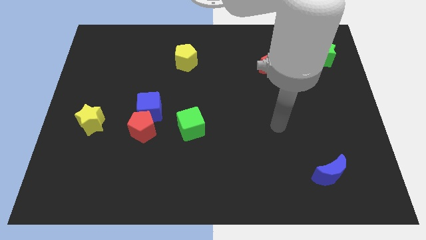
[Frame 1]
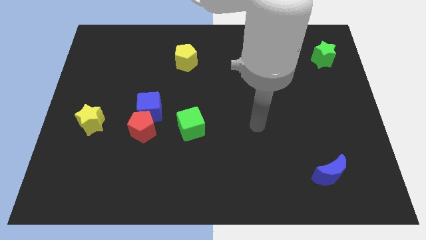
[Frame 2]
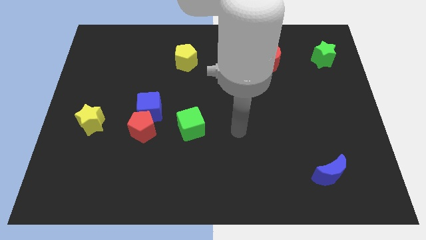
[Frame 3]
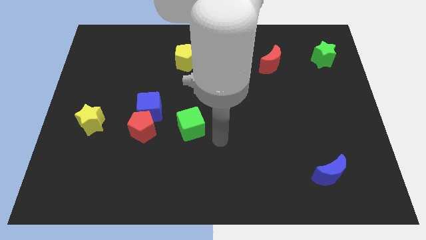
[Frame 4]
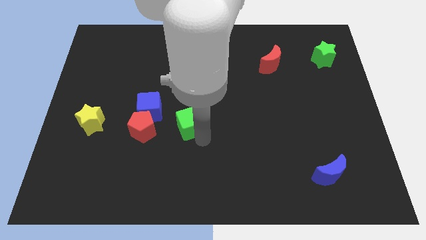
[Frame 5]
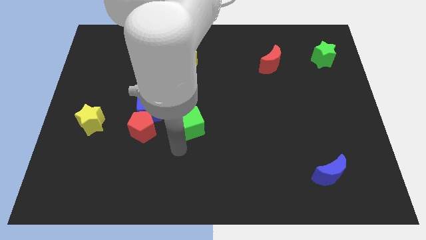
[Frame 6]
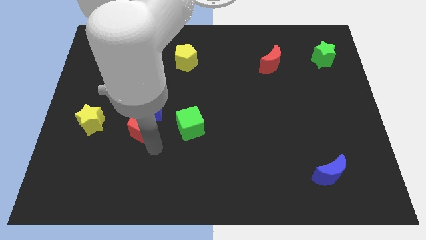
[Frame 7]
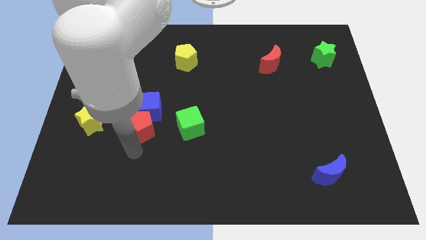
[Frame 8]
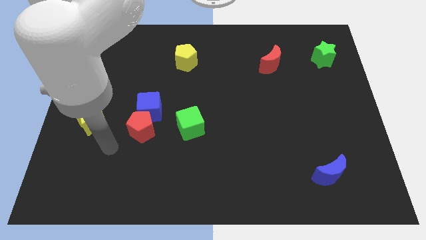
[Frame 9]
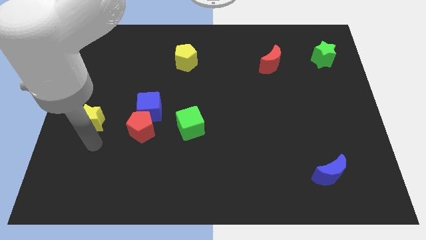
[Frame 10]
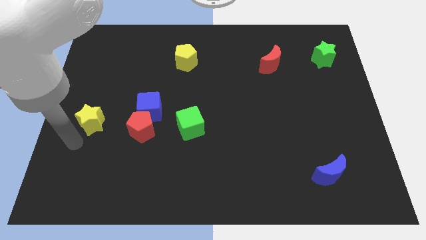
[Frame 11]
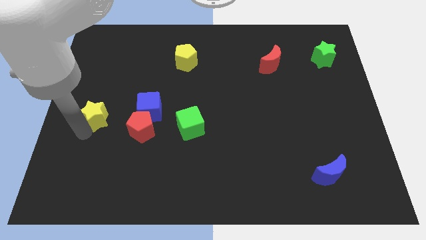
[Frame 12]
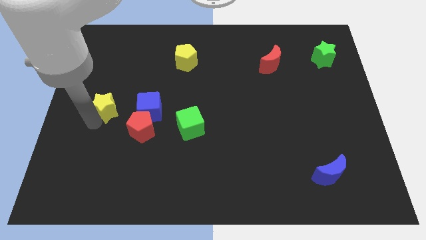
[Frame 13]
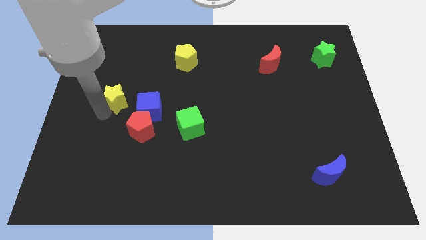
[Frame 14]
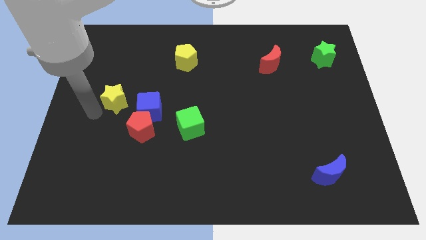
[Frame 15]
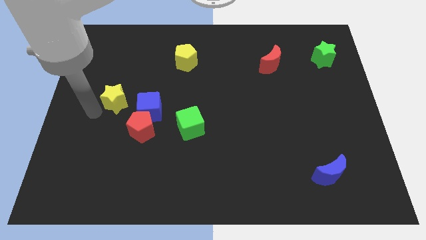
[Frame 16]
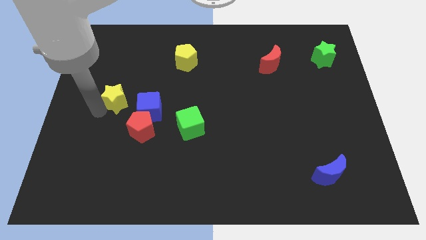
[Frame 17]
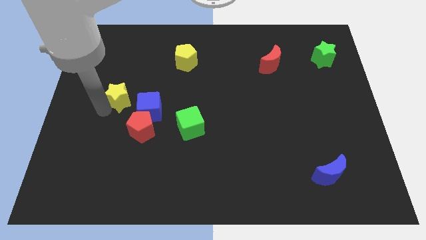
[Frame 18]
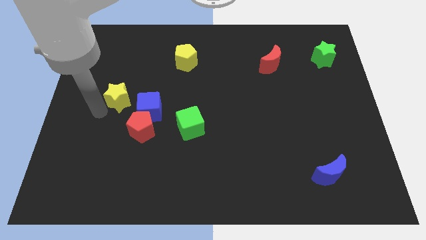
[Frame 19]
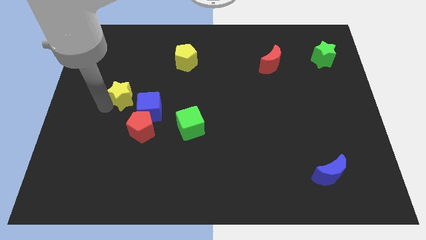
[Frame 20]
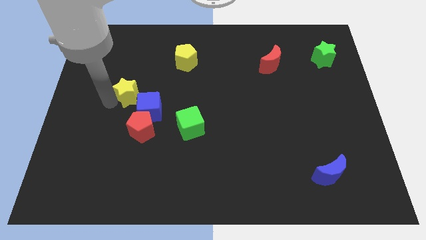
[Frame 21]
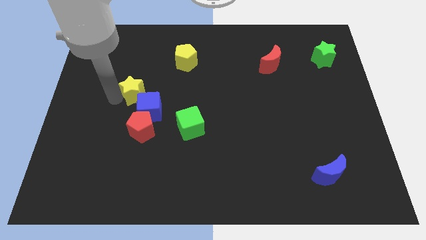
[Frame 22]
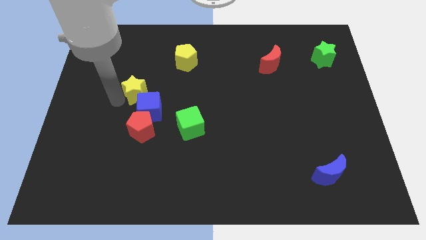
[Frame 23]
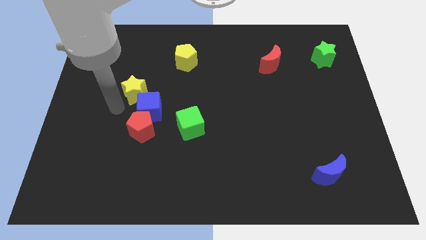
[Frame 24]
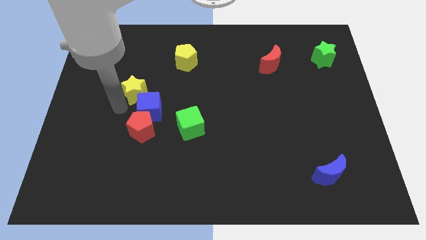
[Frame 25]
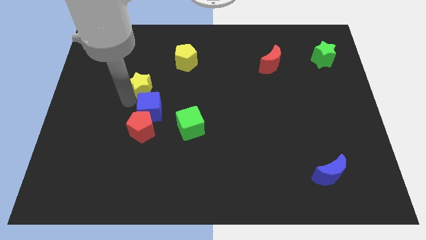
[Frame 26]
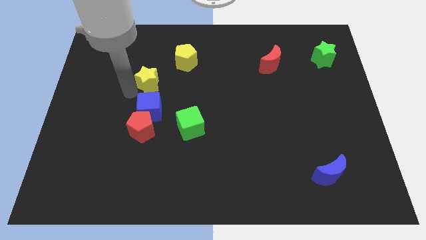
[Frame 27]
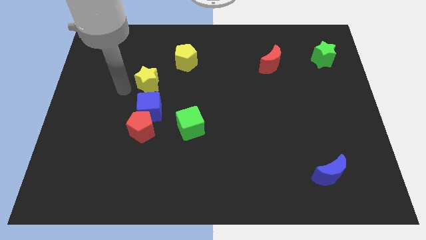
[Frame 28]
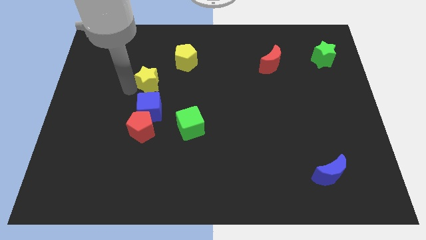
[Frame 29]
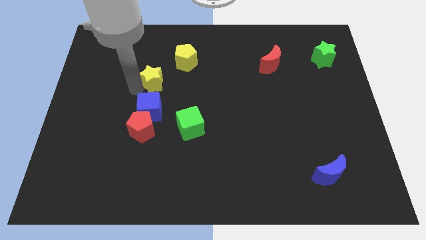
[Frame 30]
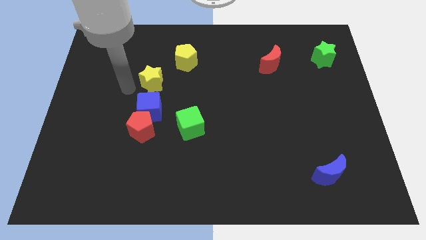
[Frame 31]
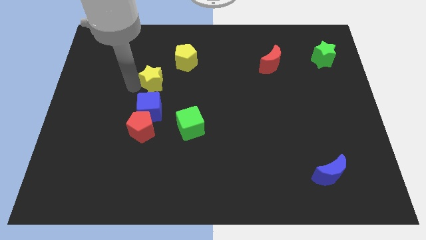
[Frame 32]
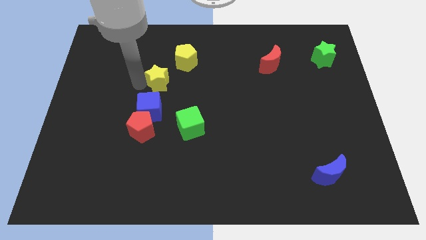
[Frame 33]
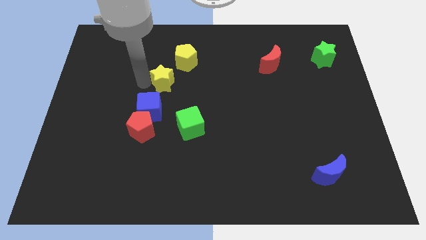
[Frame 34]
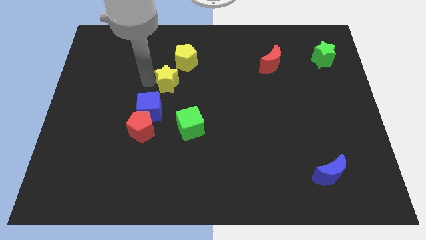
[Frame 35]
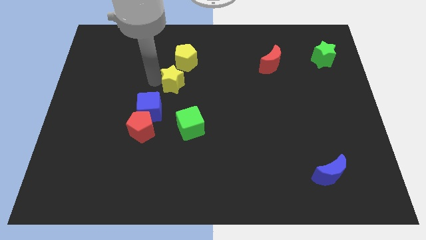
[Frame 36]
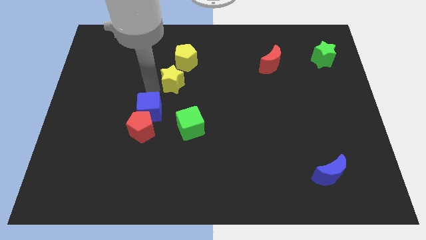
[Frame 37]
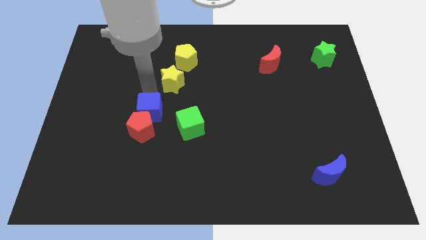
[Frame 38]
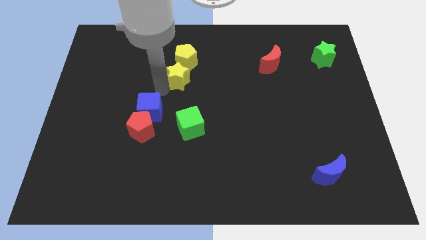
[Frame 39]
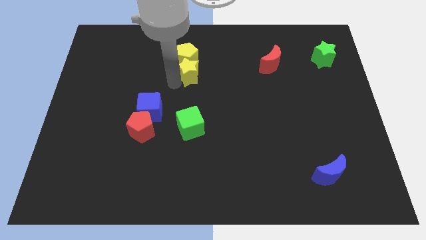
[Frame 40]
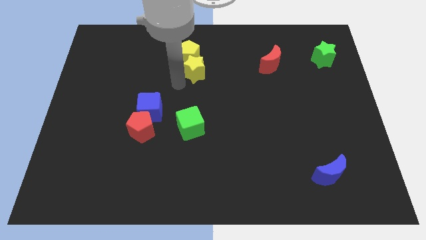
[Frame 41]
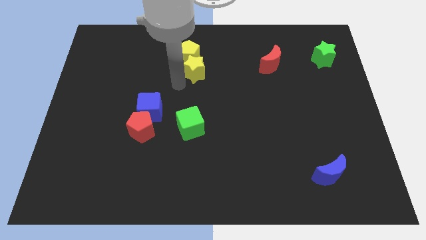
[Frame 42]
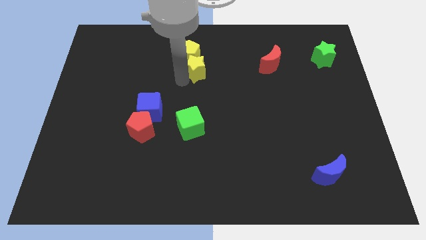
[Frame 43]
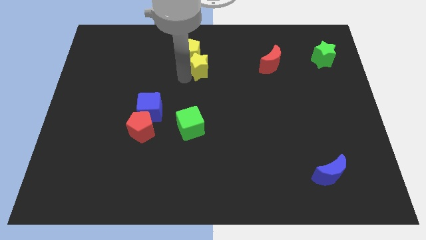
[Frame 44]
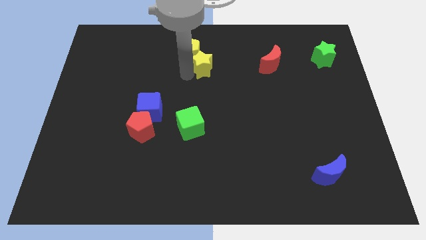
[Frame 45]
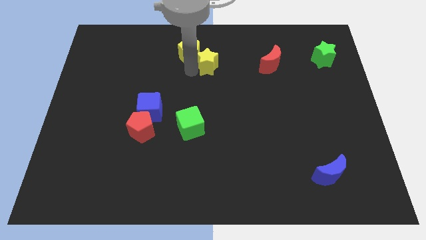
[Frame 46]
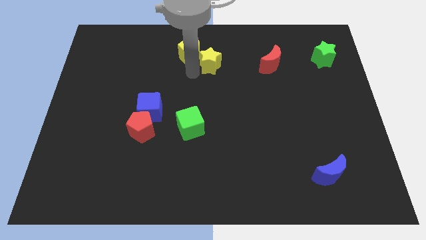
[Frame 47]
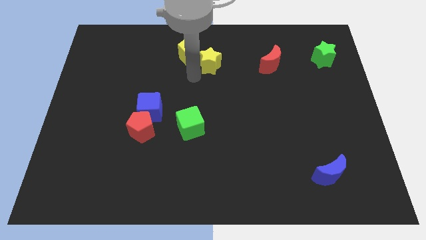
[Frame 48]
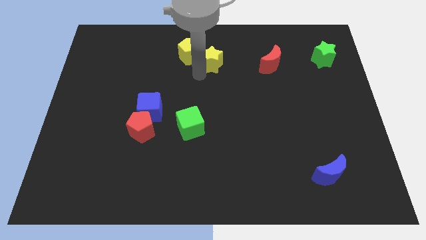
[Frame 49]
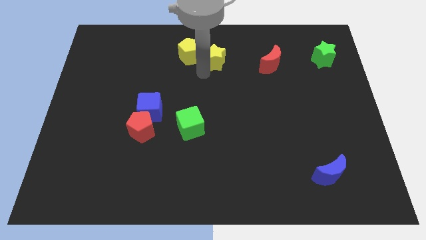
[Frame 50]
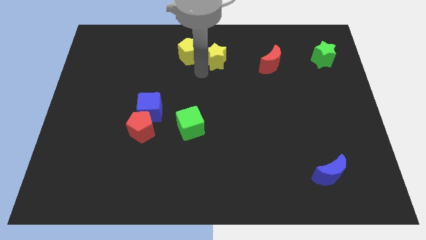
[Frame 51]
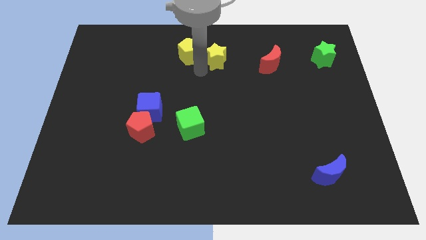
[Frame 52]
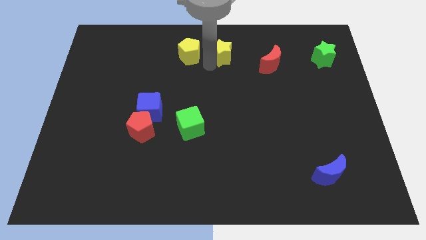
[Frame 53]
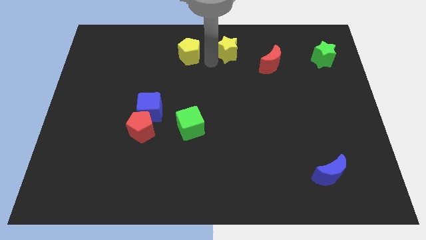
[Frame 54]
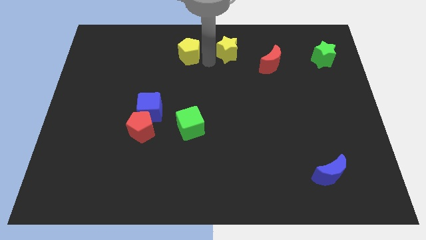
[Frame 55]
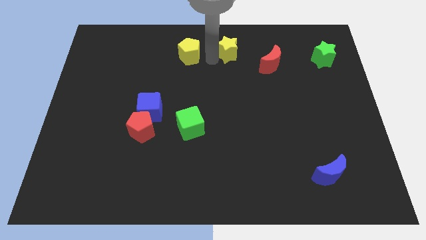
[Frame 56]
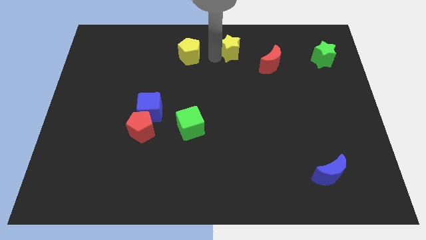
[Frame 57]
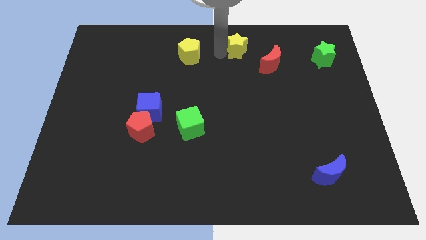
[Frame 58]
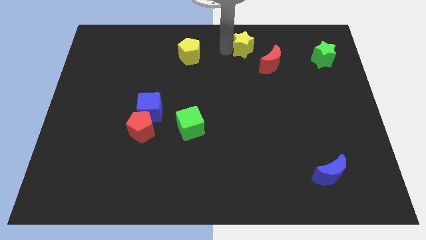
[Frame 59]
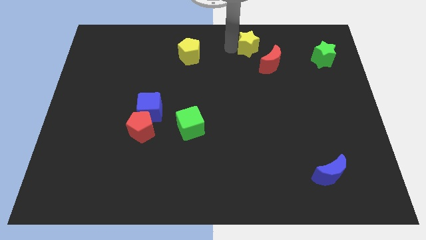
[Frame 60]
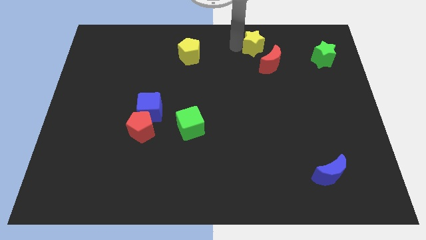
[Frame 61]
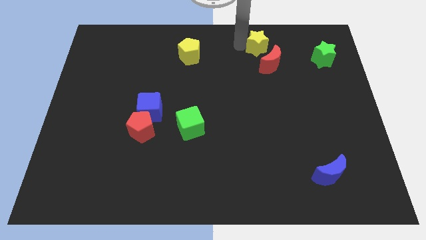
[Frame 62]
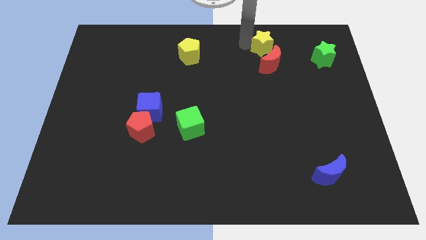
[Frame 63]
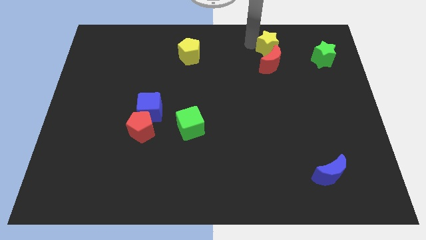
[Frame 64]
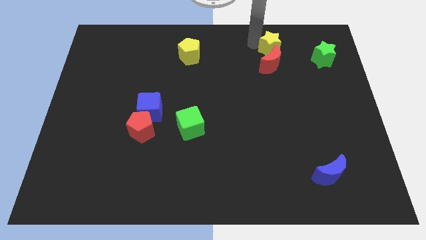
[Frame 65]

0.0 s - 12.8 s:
push the yellow star to the left of the green star

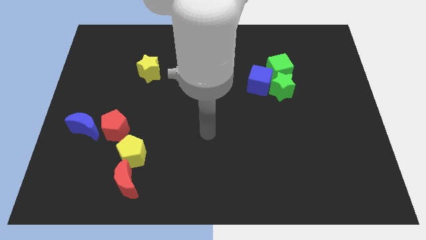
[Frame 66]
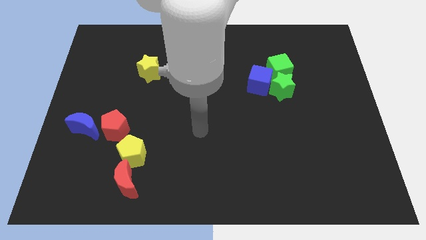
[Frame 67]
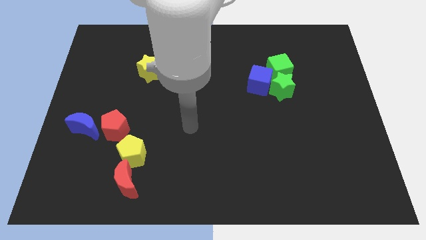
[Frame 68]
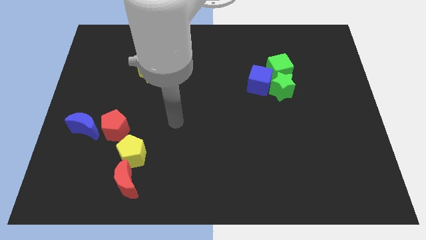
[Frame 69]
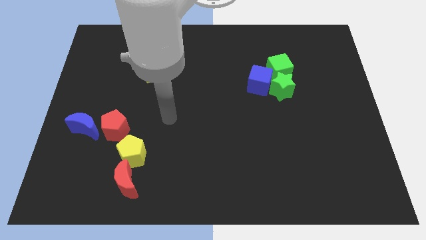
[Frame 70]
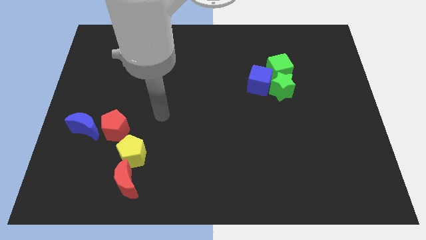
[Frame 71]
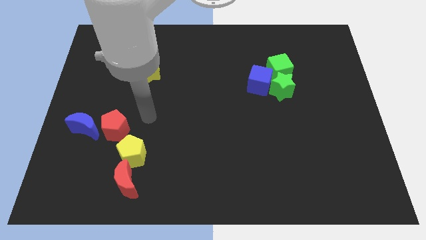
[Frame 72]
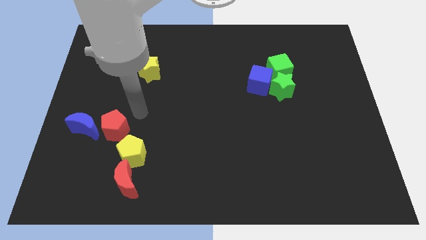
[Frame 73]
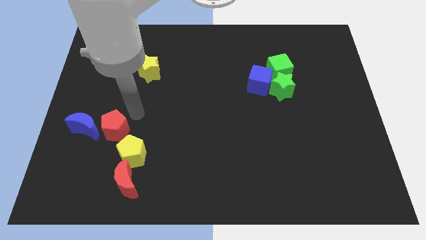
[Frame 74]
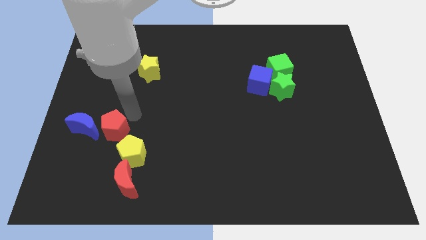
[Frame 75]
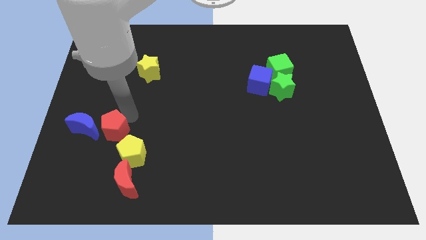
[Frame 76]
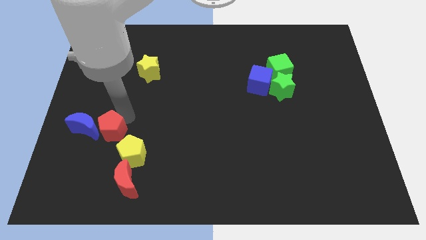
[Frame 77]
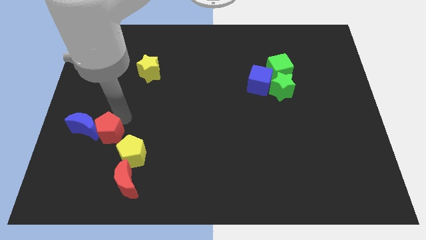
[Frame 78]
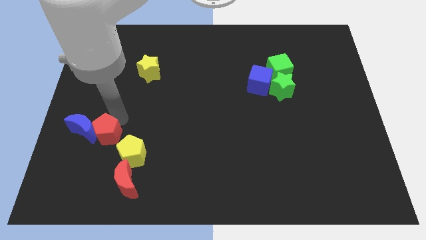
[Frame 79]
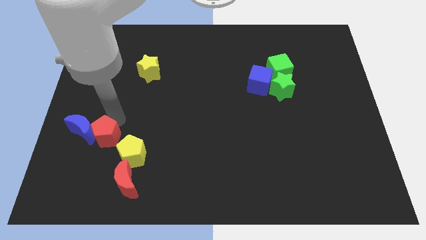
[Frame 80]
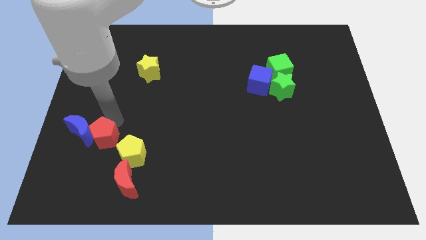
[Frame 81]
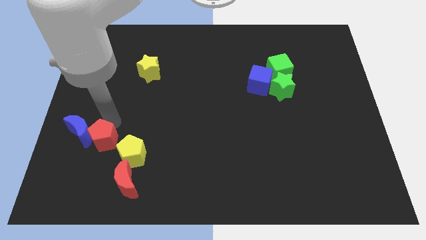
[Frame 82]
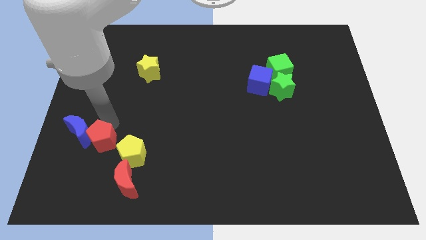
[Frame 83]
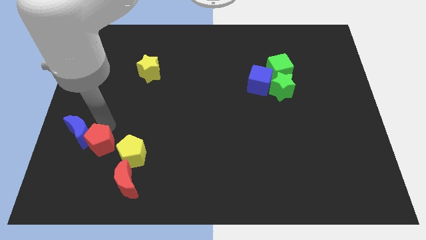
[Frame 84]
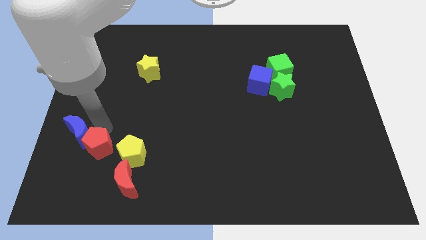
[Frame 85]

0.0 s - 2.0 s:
slide the red pentagon to the bottom of the blue moon
